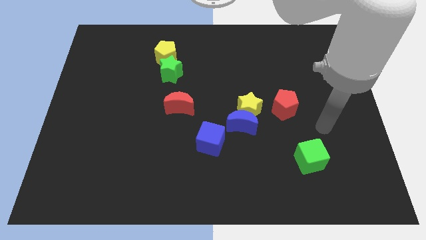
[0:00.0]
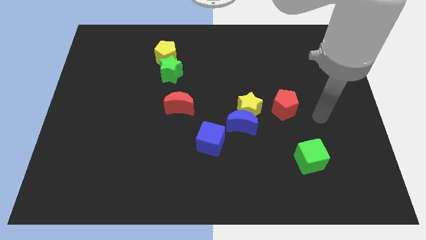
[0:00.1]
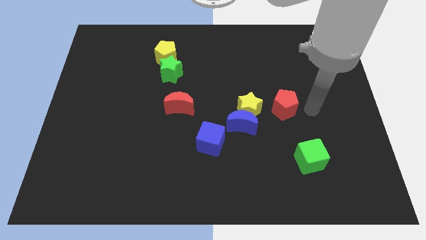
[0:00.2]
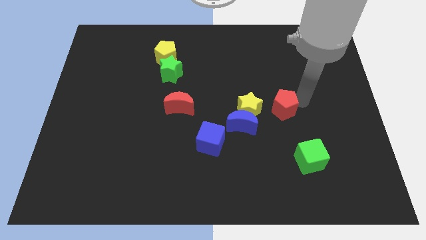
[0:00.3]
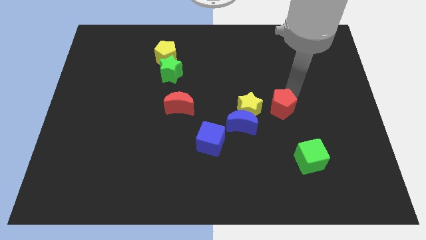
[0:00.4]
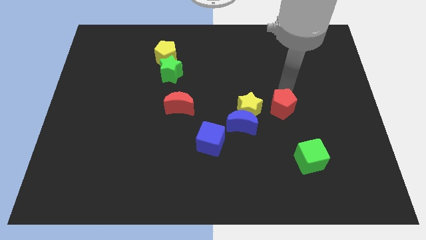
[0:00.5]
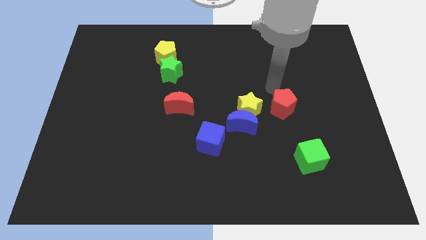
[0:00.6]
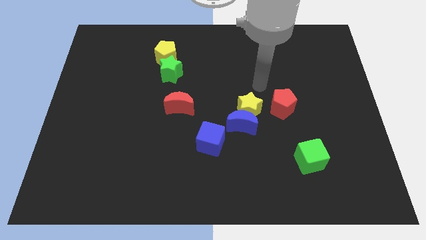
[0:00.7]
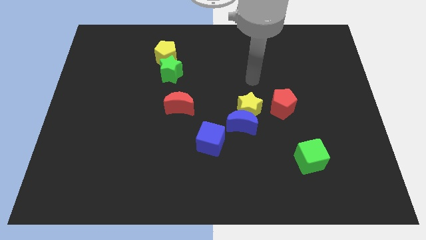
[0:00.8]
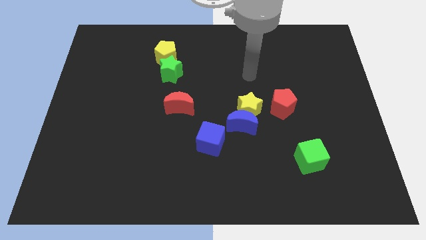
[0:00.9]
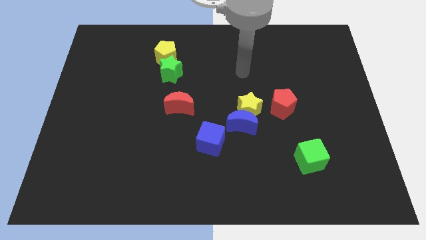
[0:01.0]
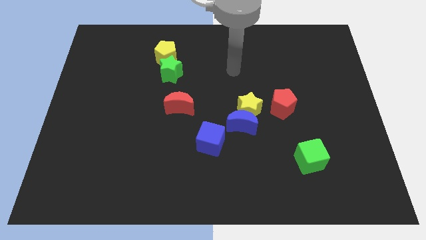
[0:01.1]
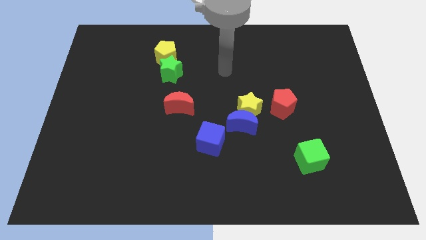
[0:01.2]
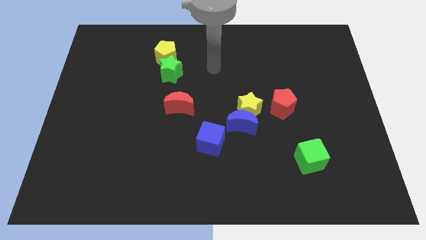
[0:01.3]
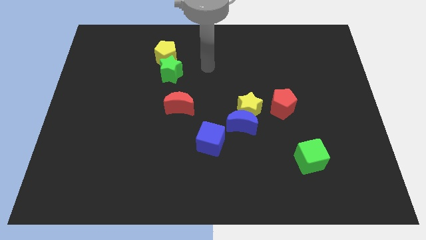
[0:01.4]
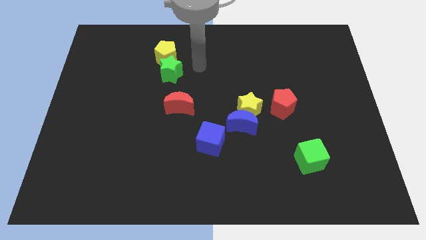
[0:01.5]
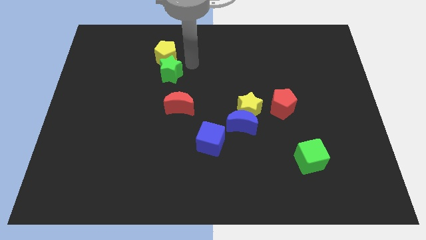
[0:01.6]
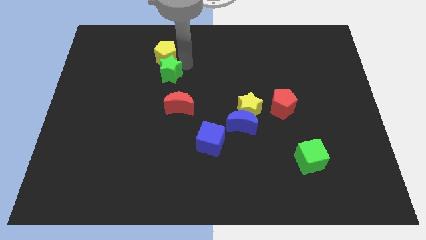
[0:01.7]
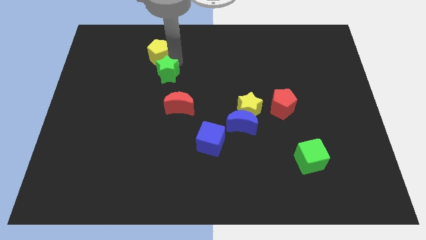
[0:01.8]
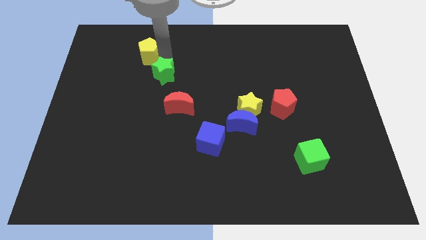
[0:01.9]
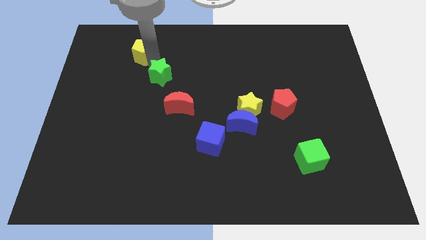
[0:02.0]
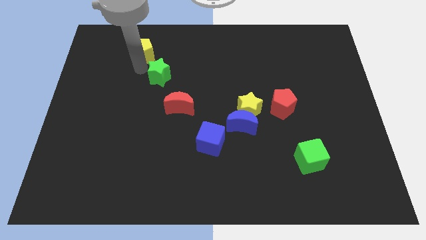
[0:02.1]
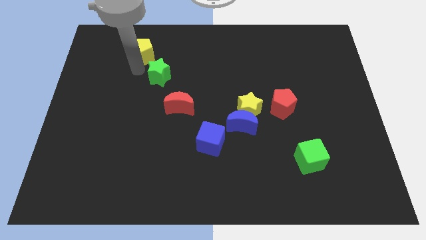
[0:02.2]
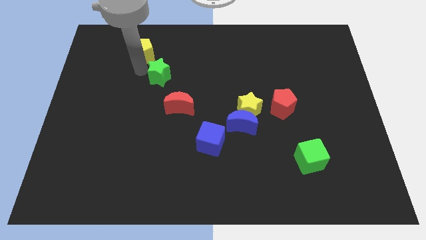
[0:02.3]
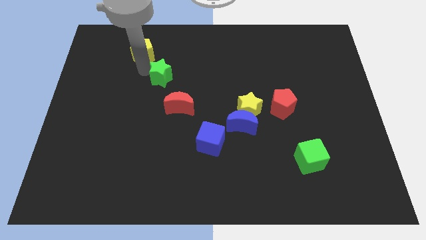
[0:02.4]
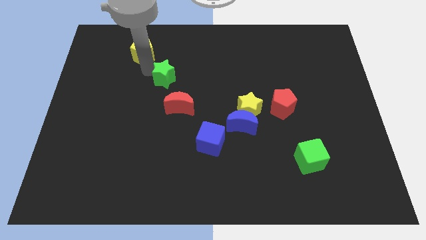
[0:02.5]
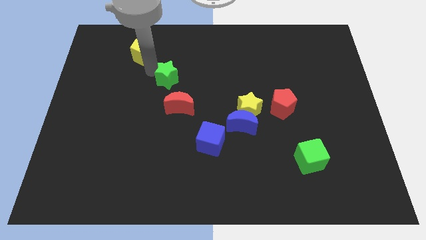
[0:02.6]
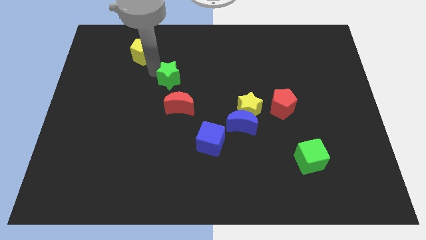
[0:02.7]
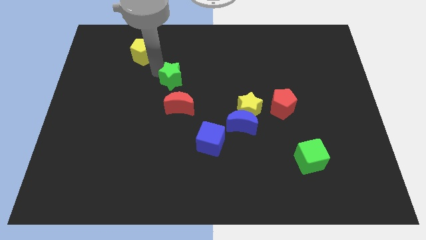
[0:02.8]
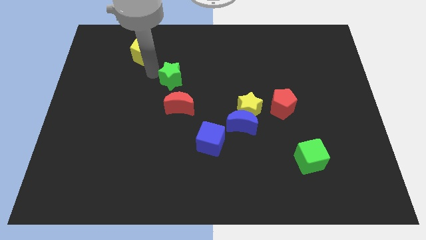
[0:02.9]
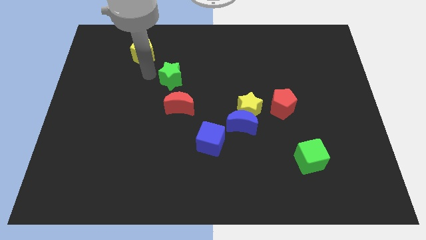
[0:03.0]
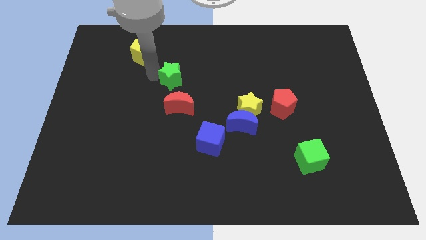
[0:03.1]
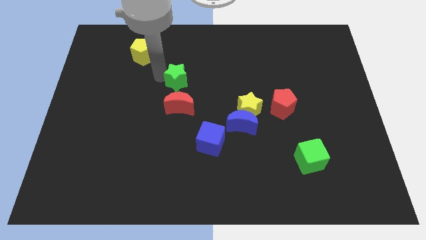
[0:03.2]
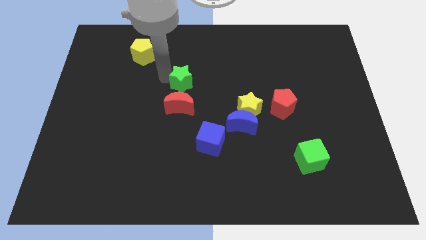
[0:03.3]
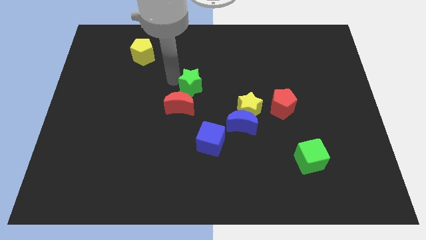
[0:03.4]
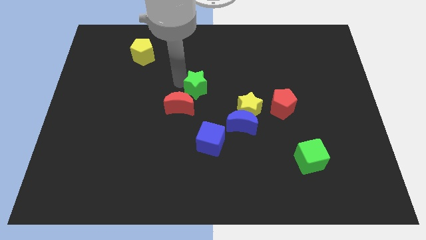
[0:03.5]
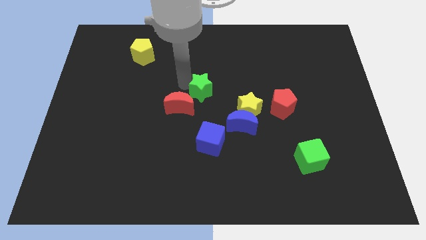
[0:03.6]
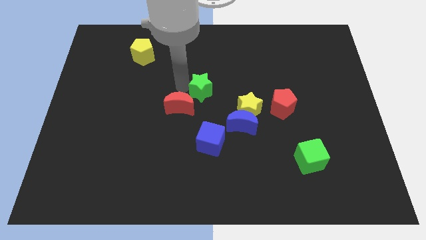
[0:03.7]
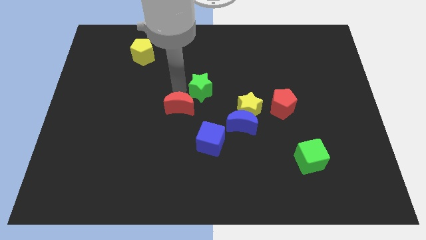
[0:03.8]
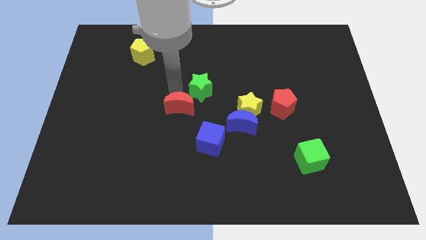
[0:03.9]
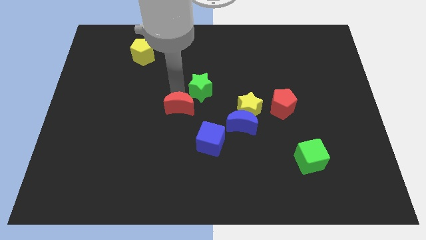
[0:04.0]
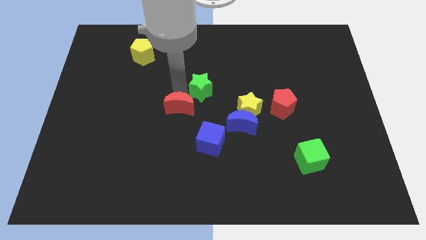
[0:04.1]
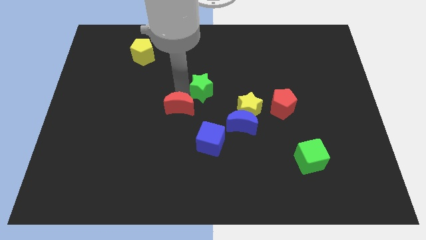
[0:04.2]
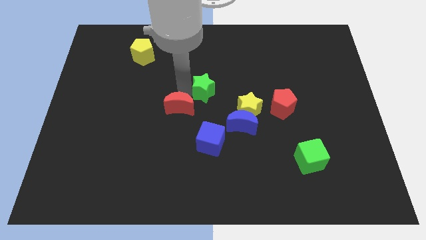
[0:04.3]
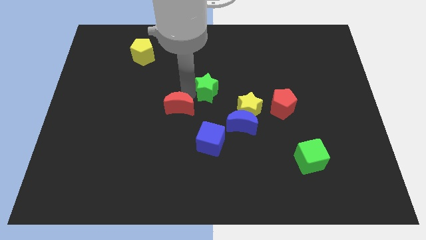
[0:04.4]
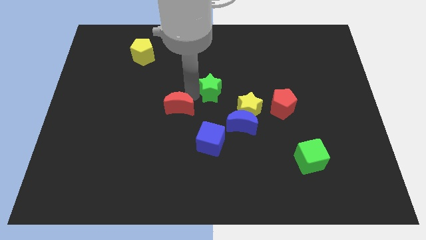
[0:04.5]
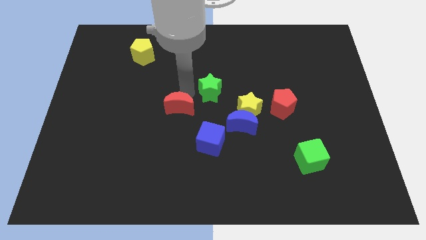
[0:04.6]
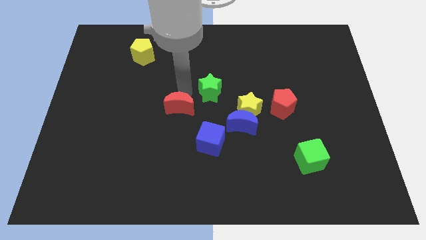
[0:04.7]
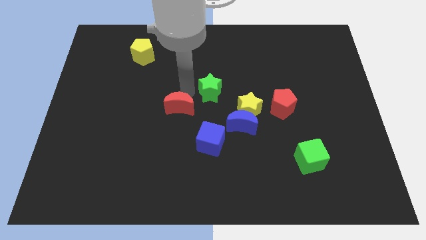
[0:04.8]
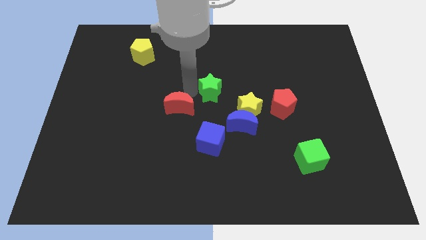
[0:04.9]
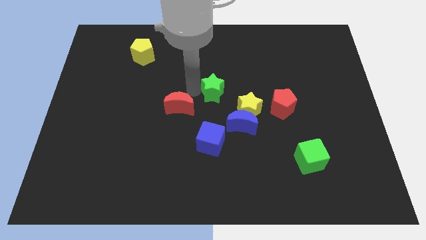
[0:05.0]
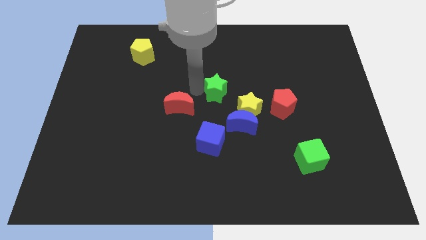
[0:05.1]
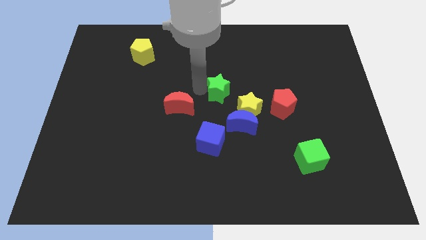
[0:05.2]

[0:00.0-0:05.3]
put the green star to the top side of the blue moon

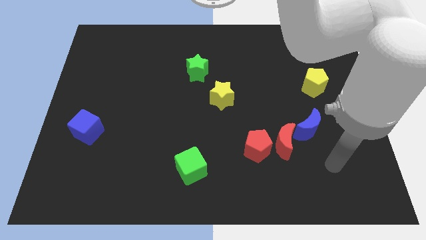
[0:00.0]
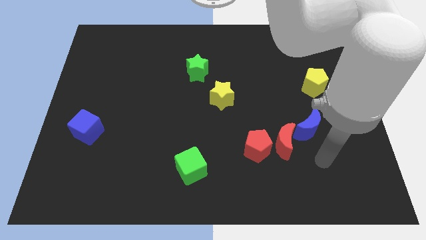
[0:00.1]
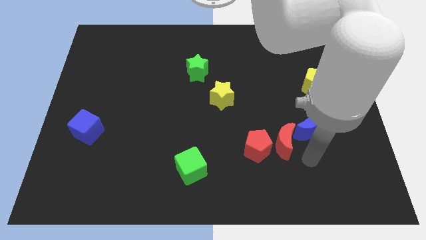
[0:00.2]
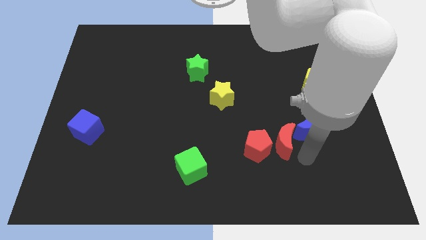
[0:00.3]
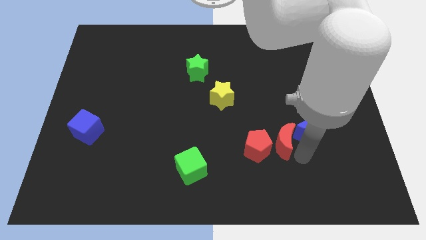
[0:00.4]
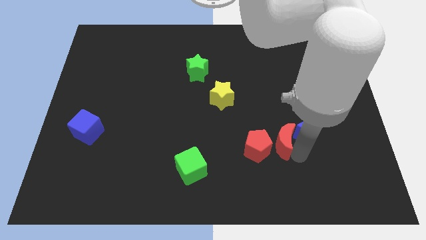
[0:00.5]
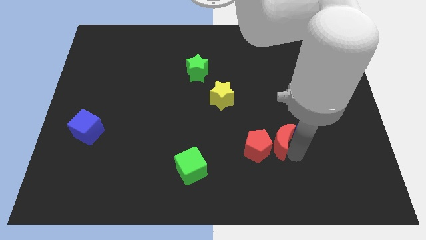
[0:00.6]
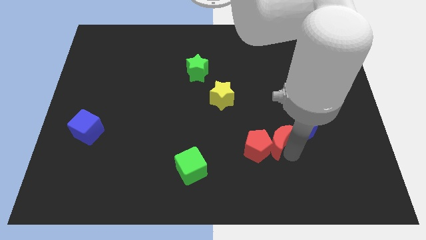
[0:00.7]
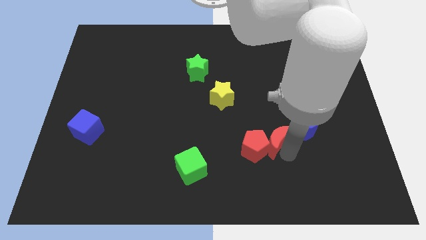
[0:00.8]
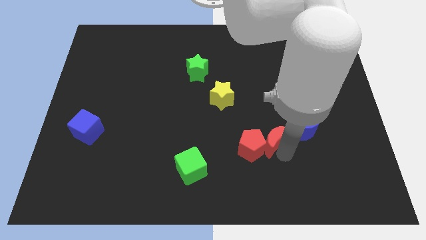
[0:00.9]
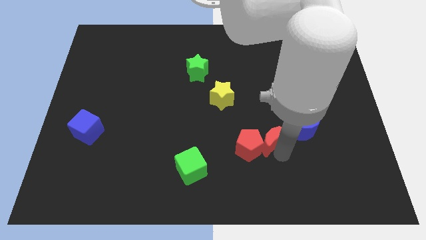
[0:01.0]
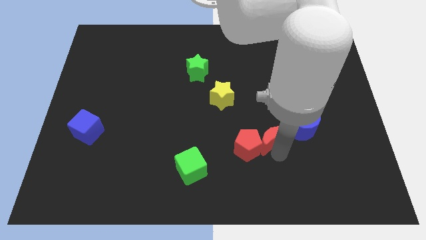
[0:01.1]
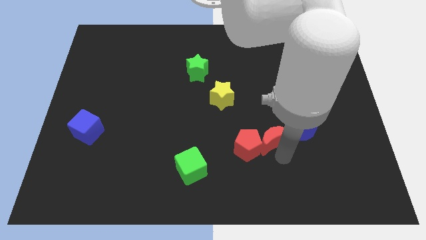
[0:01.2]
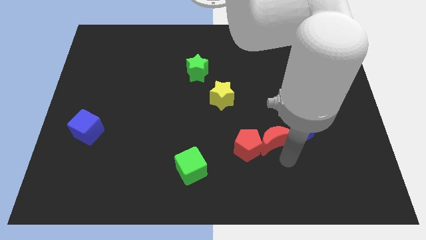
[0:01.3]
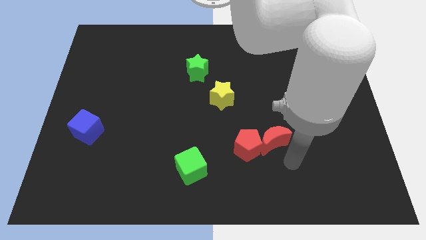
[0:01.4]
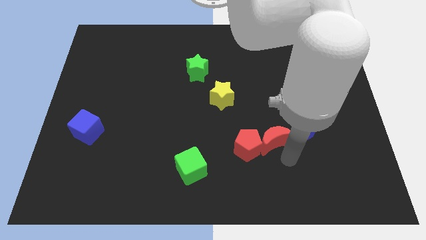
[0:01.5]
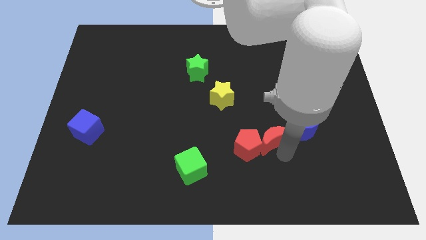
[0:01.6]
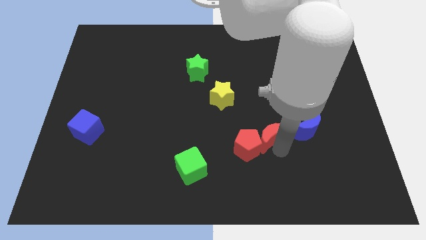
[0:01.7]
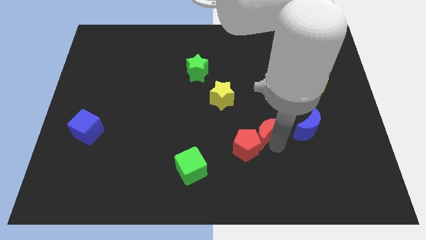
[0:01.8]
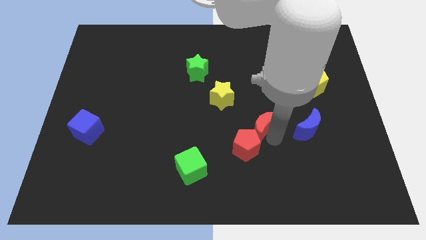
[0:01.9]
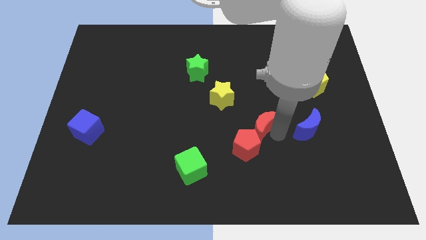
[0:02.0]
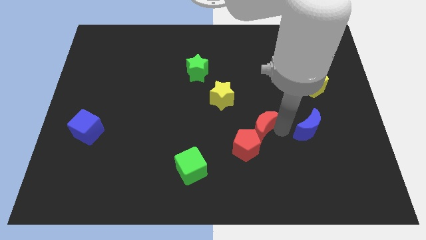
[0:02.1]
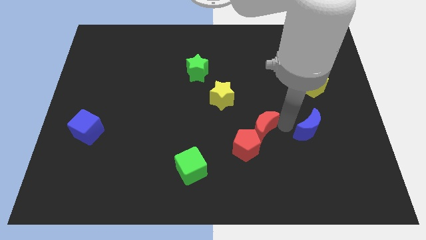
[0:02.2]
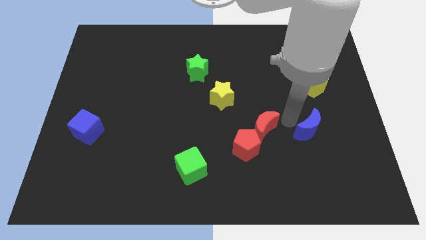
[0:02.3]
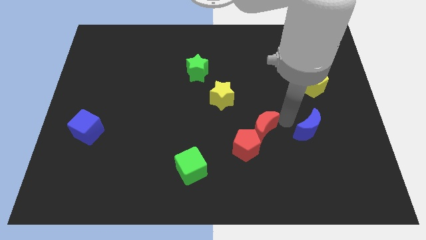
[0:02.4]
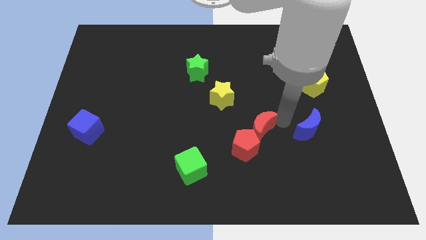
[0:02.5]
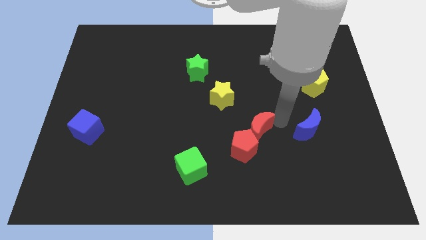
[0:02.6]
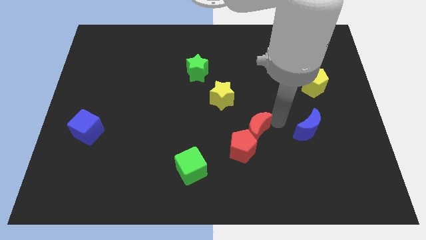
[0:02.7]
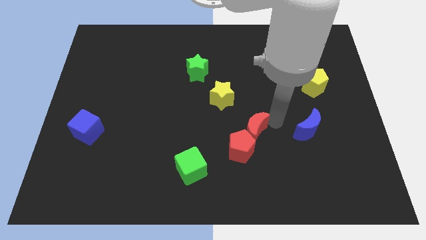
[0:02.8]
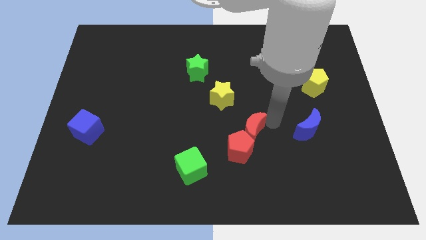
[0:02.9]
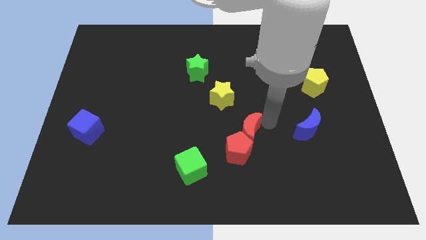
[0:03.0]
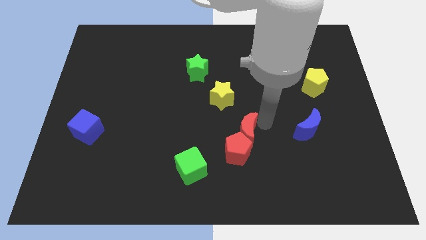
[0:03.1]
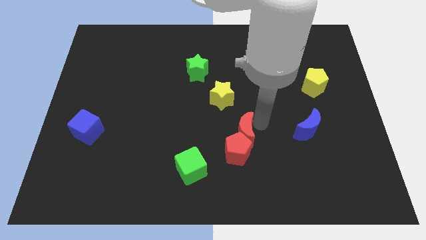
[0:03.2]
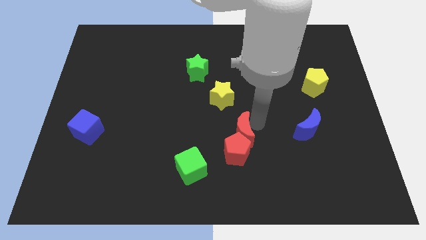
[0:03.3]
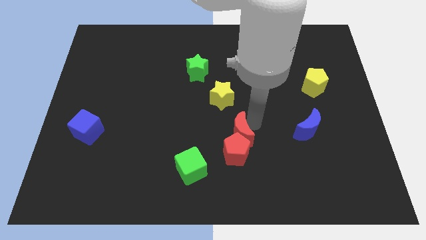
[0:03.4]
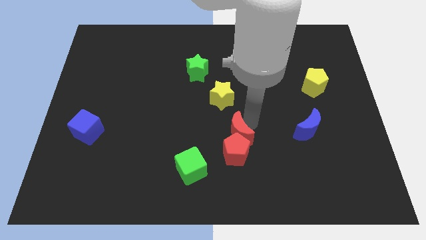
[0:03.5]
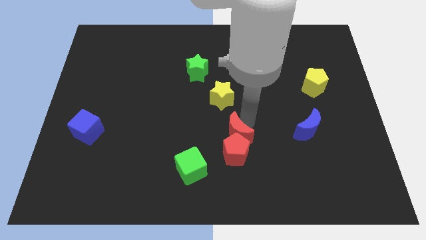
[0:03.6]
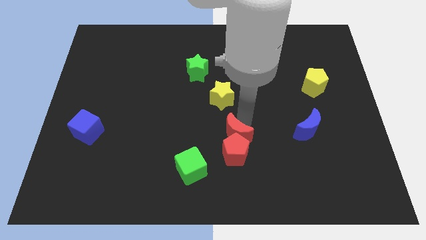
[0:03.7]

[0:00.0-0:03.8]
move the red moon to the top right of the green cube
